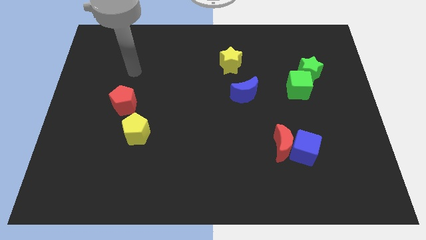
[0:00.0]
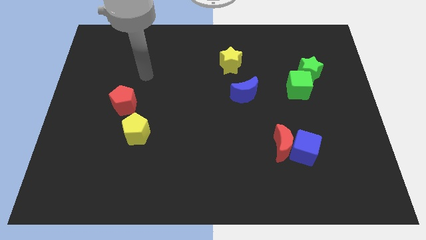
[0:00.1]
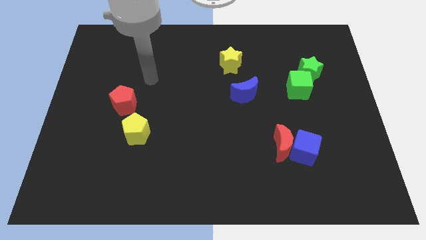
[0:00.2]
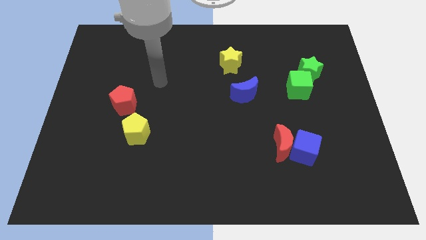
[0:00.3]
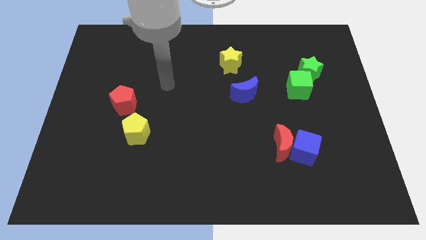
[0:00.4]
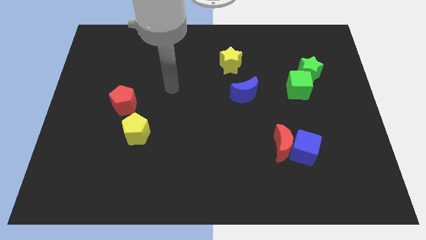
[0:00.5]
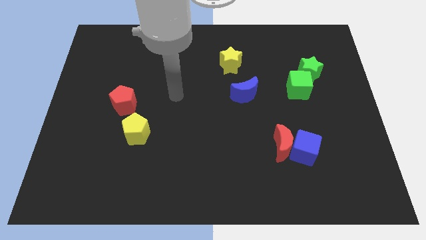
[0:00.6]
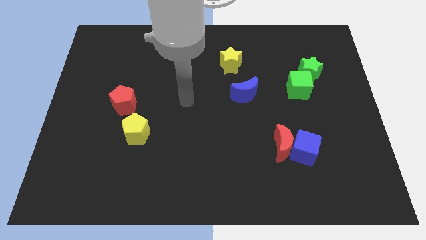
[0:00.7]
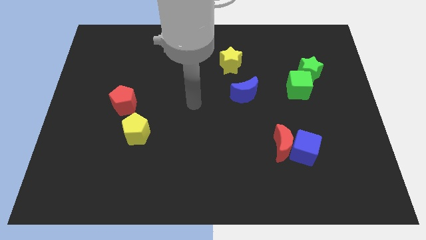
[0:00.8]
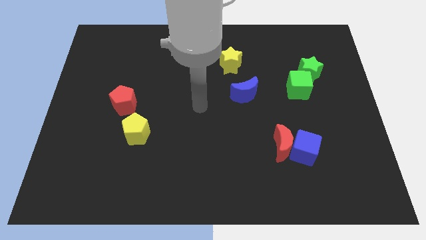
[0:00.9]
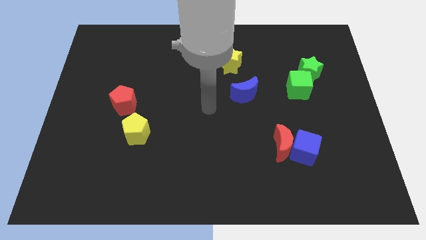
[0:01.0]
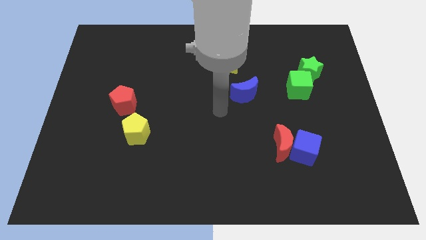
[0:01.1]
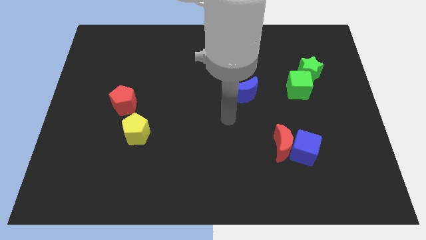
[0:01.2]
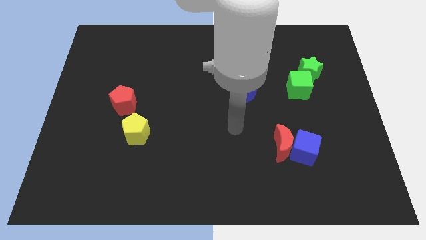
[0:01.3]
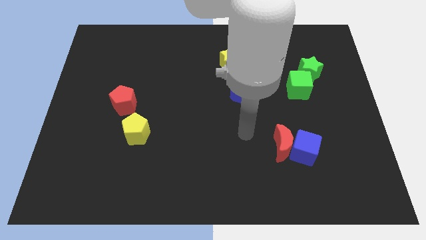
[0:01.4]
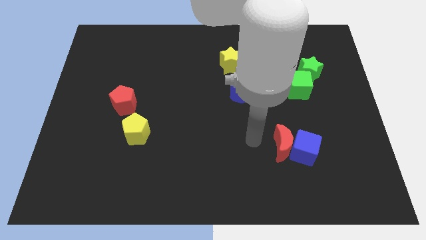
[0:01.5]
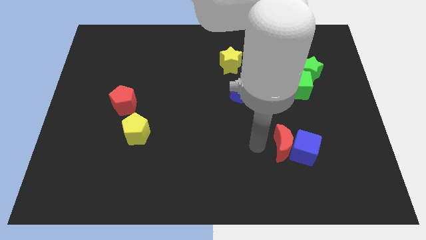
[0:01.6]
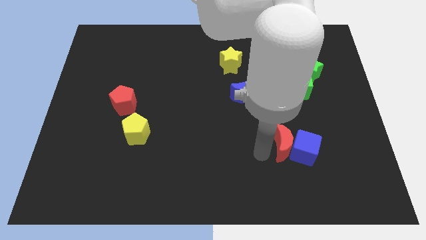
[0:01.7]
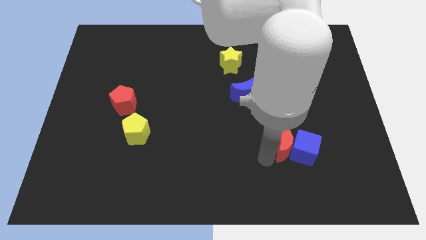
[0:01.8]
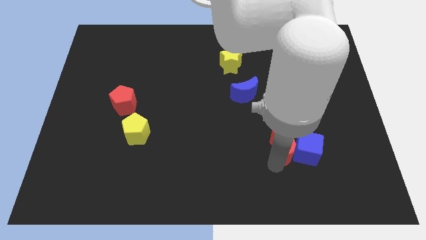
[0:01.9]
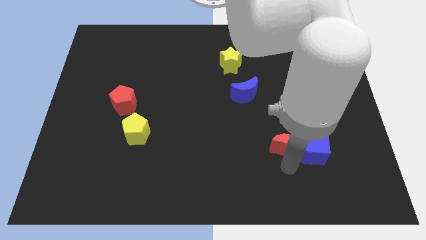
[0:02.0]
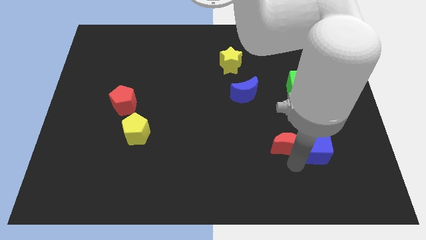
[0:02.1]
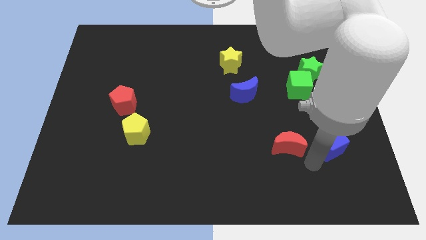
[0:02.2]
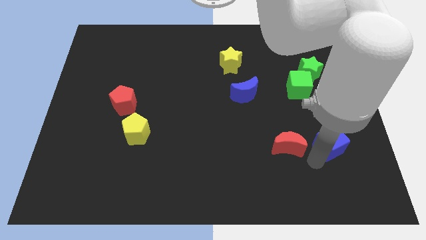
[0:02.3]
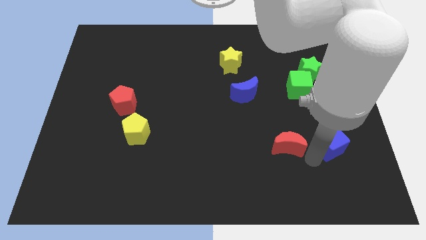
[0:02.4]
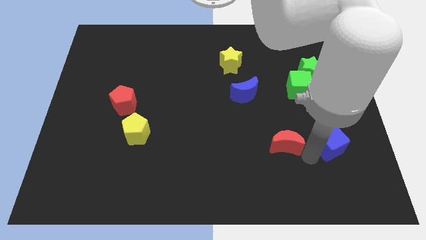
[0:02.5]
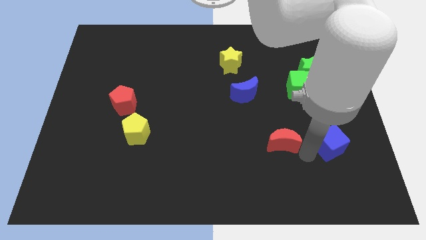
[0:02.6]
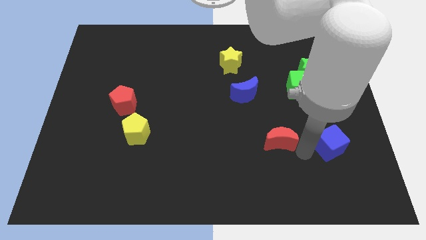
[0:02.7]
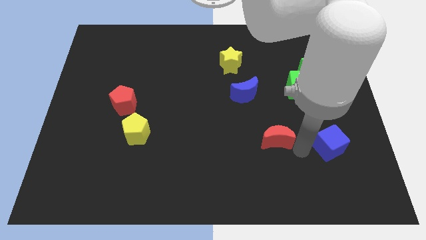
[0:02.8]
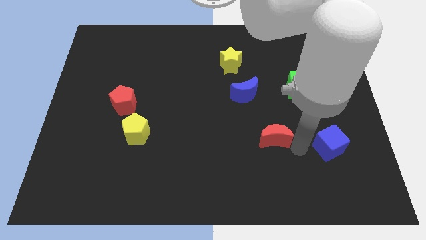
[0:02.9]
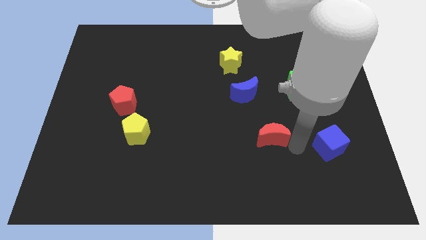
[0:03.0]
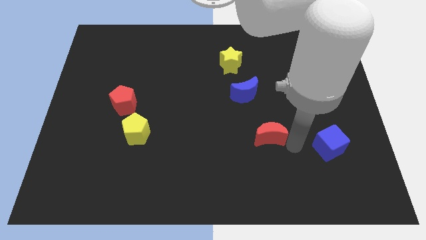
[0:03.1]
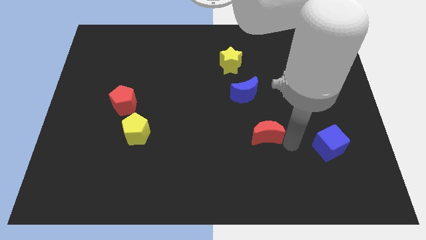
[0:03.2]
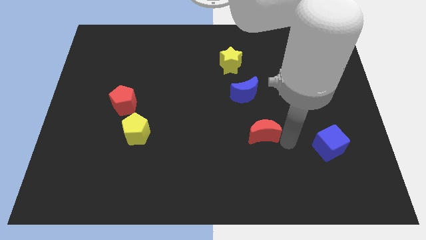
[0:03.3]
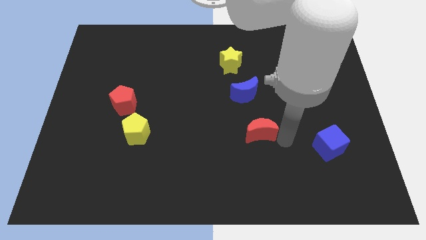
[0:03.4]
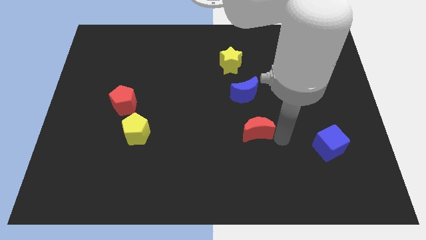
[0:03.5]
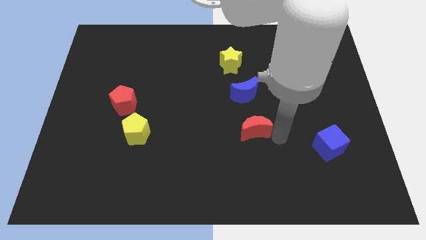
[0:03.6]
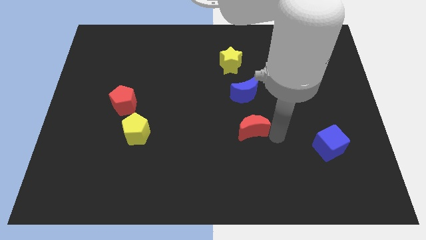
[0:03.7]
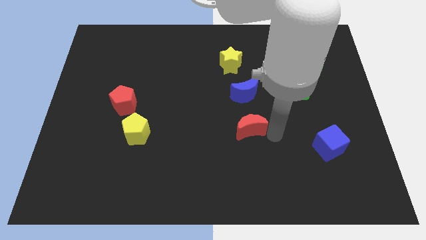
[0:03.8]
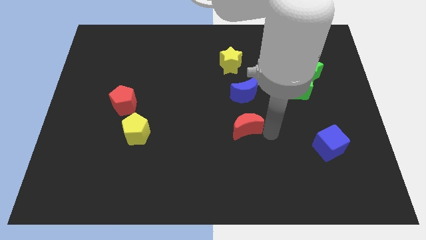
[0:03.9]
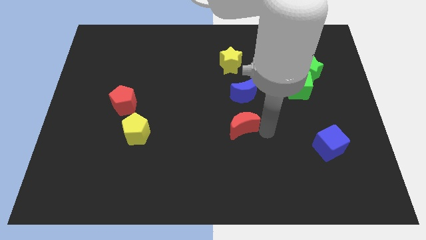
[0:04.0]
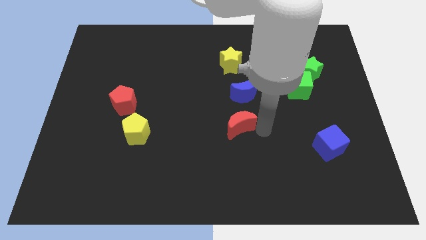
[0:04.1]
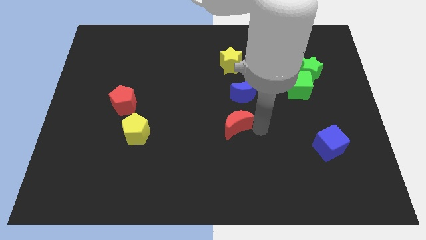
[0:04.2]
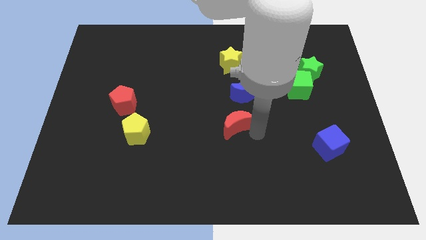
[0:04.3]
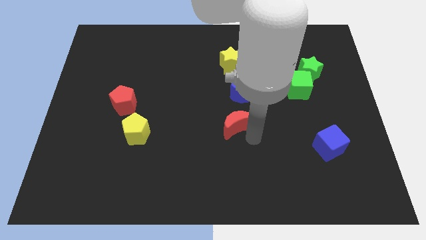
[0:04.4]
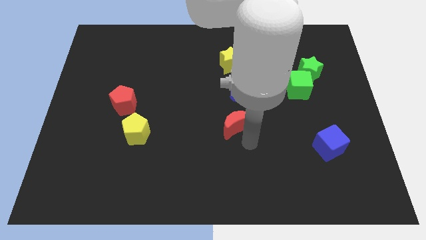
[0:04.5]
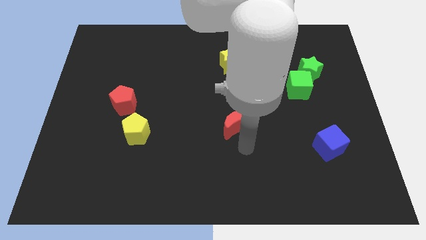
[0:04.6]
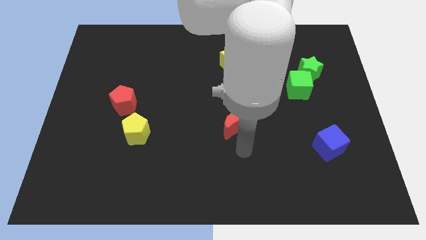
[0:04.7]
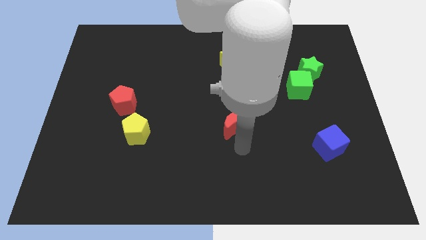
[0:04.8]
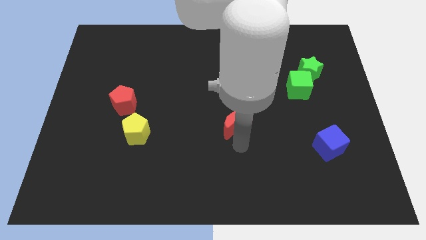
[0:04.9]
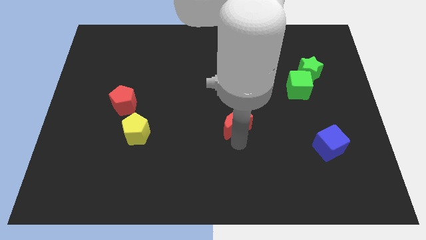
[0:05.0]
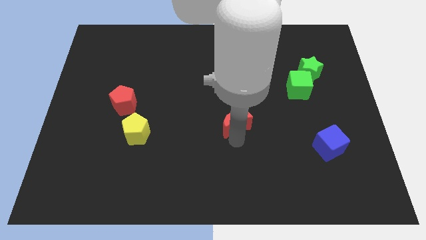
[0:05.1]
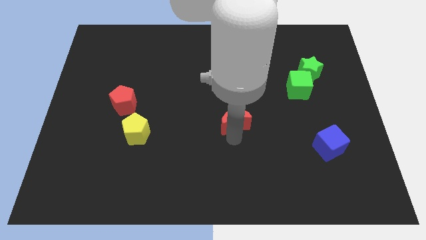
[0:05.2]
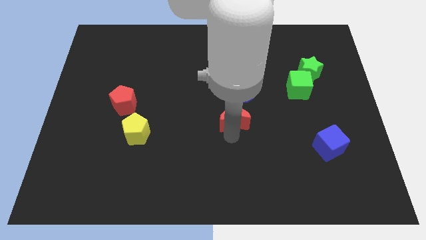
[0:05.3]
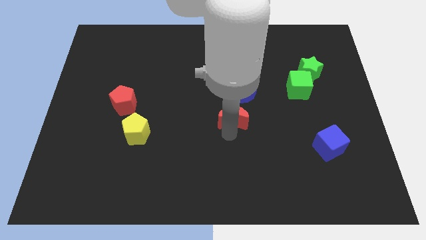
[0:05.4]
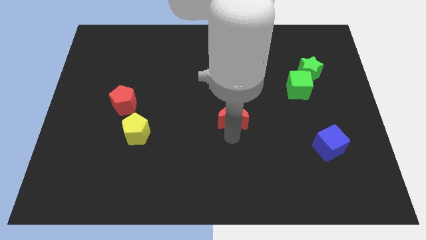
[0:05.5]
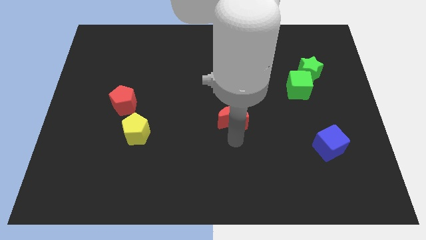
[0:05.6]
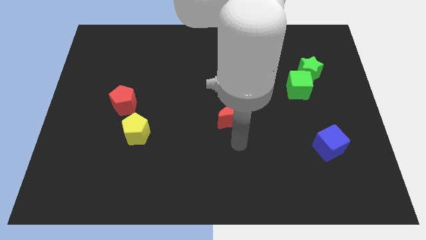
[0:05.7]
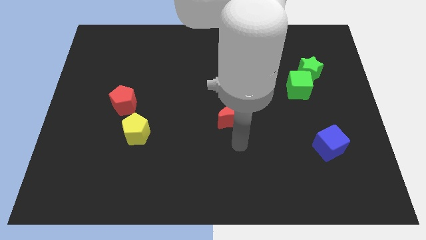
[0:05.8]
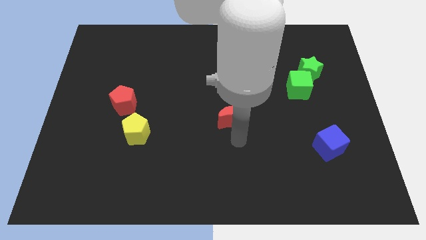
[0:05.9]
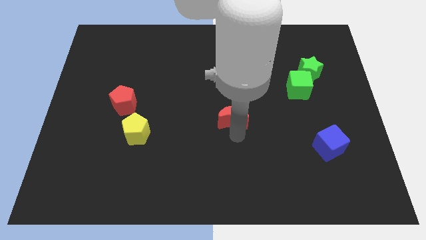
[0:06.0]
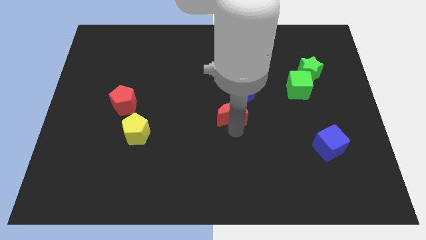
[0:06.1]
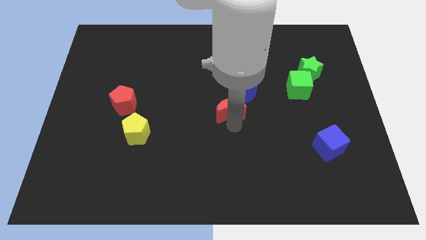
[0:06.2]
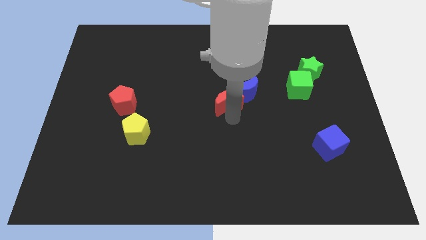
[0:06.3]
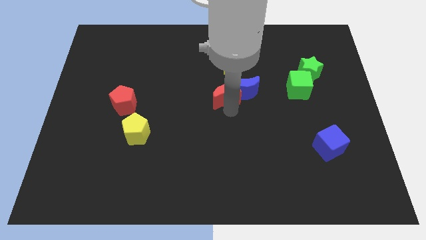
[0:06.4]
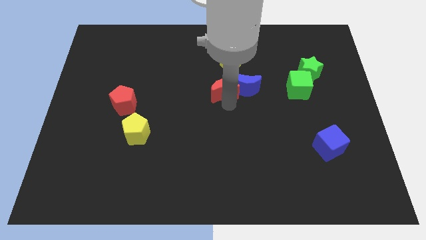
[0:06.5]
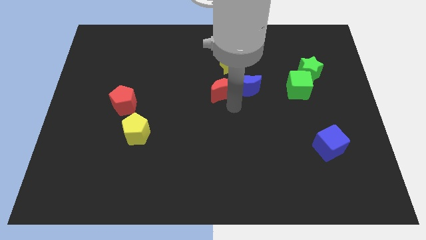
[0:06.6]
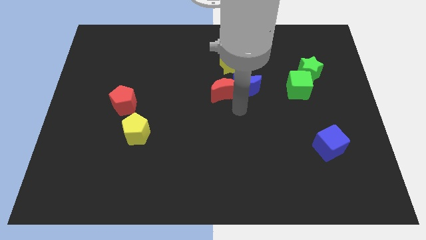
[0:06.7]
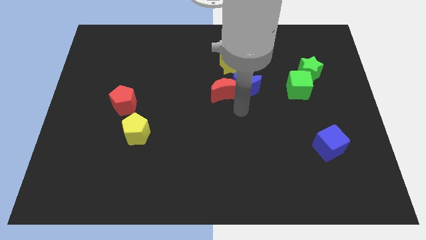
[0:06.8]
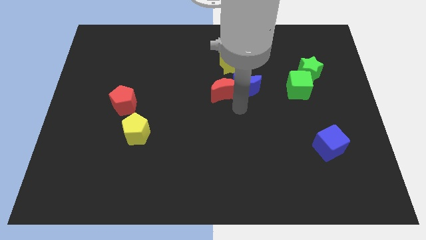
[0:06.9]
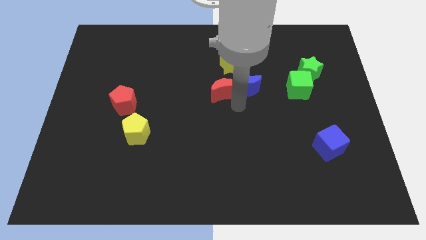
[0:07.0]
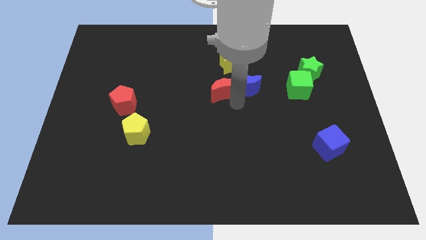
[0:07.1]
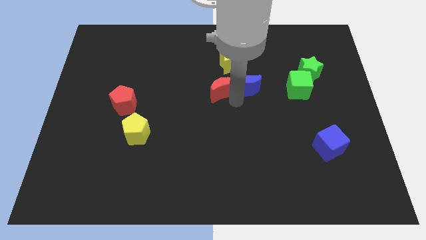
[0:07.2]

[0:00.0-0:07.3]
slide the red moon to the bottom left side of the yellow star
